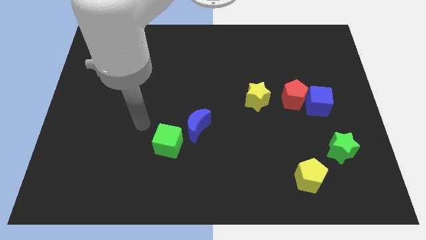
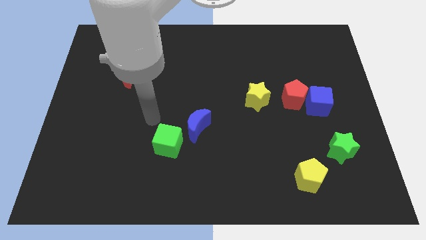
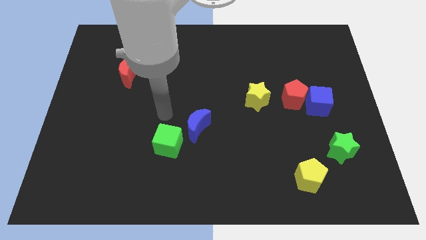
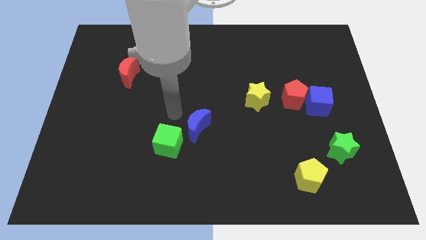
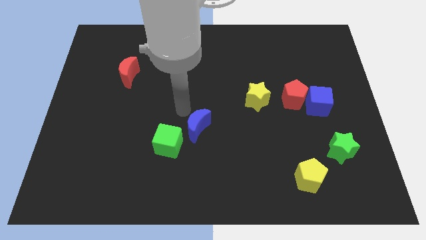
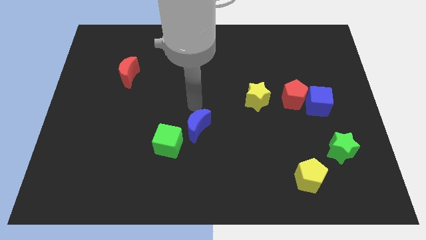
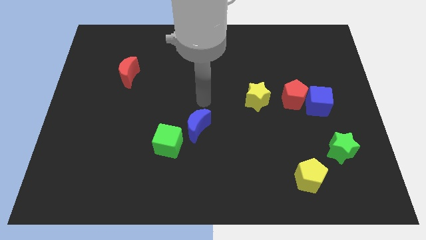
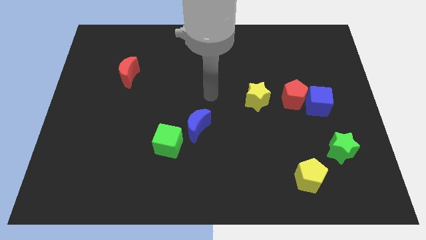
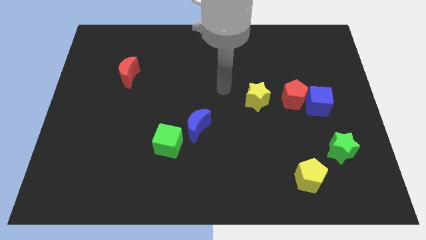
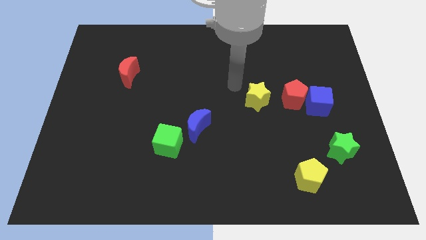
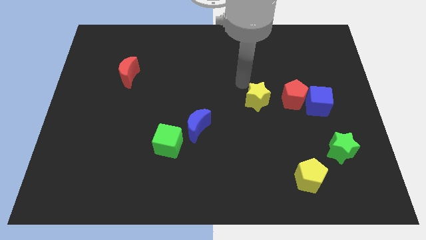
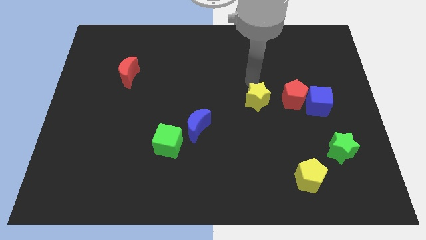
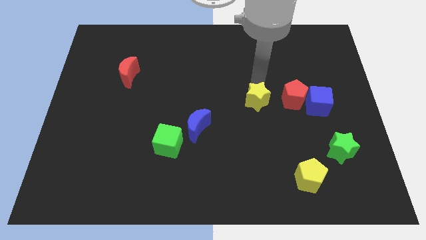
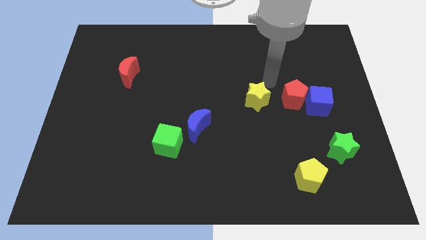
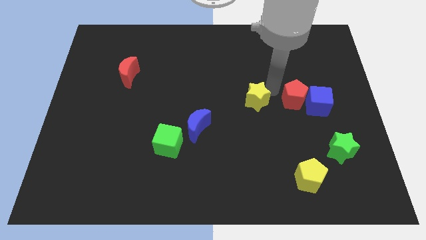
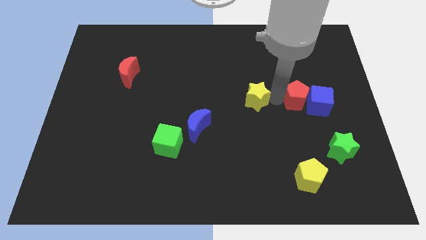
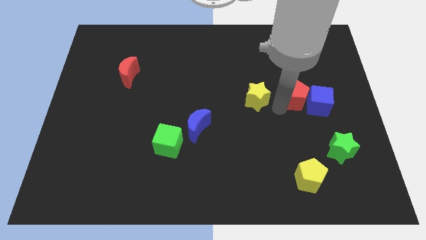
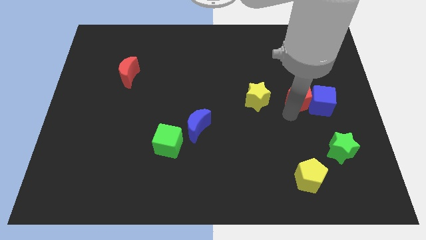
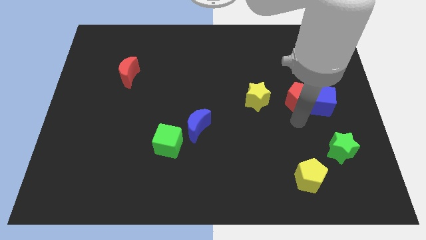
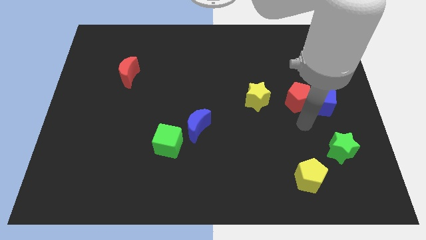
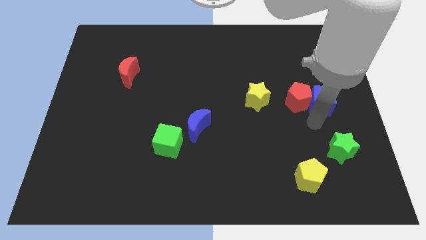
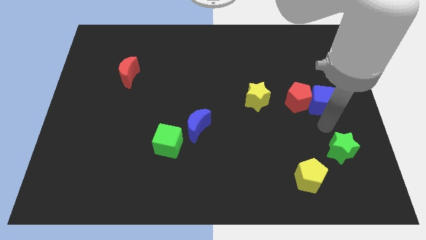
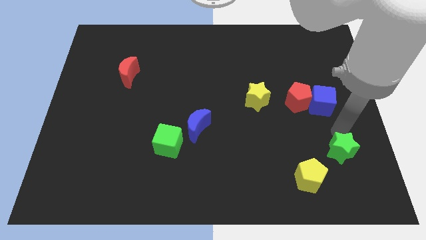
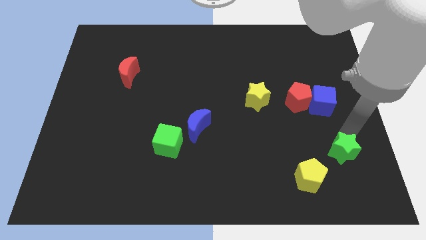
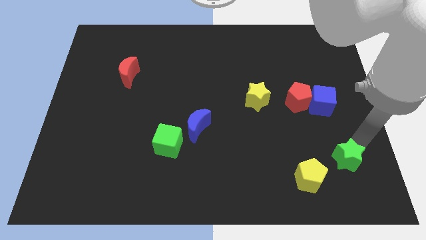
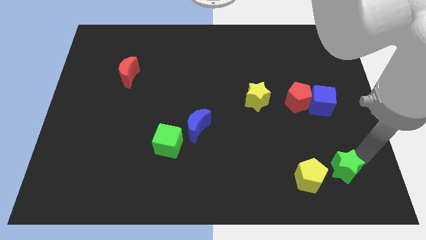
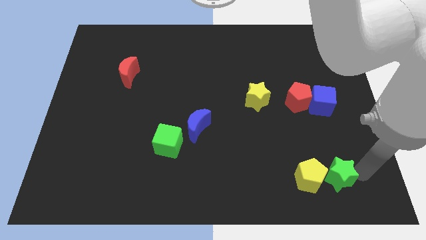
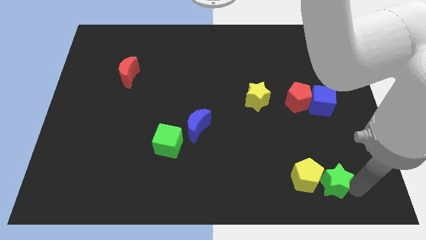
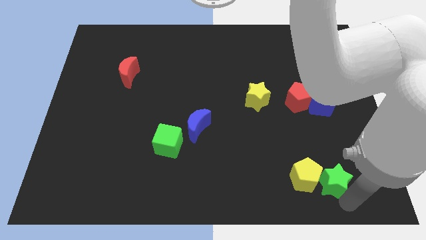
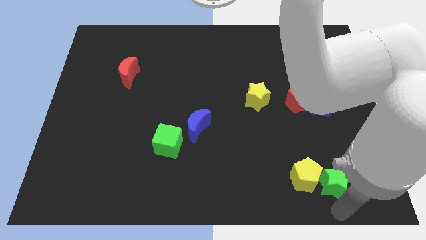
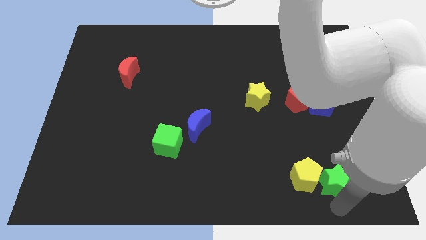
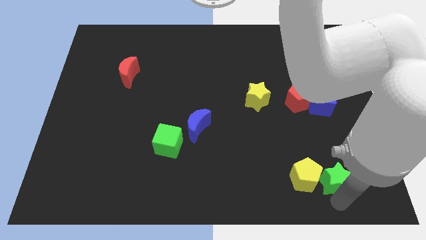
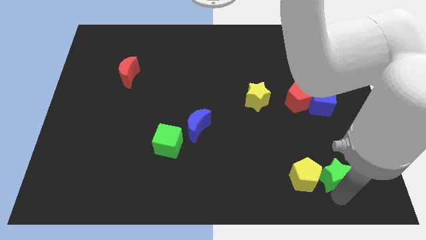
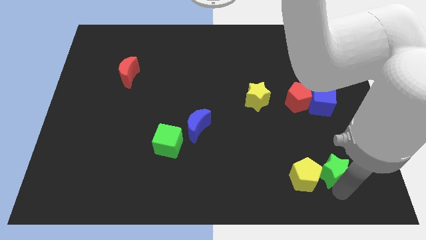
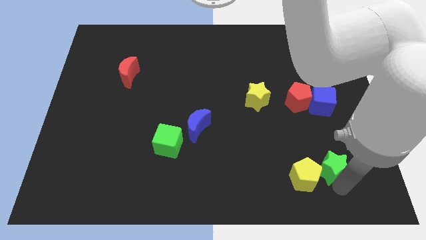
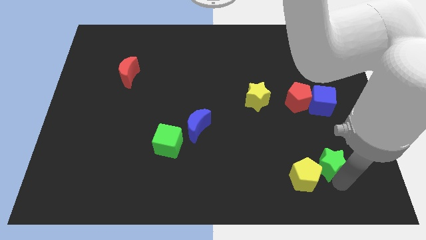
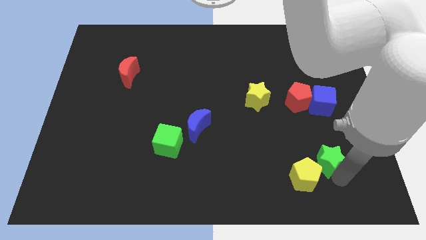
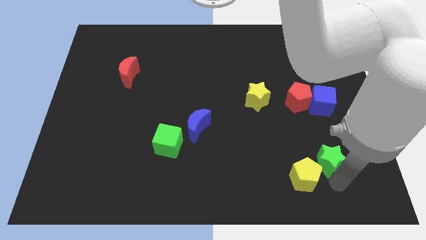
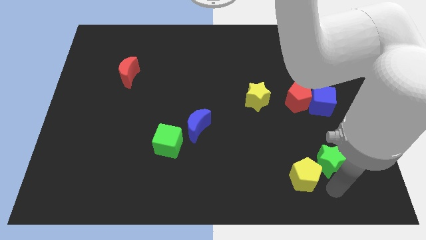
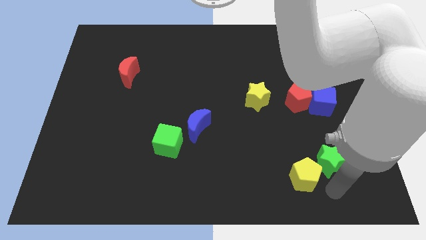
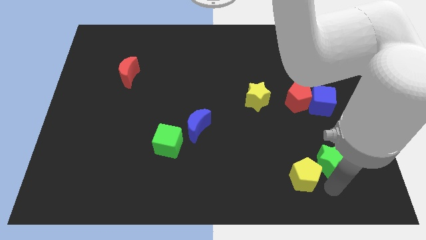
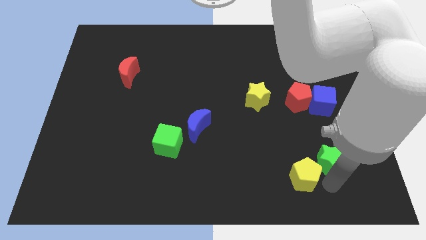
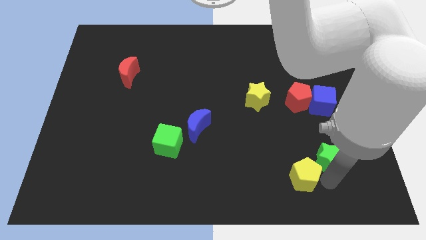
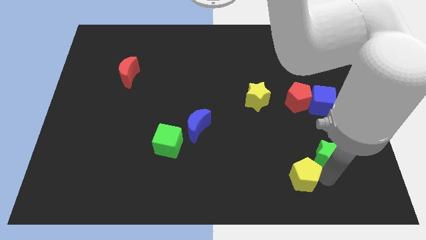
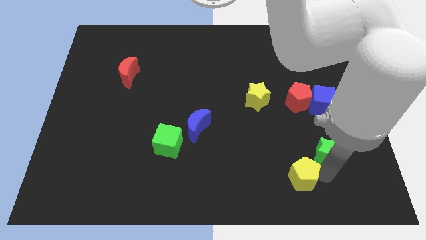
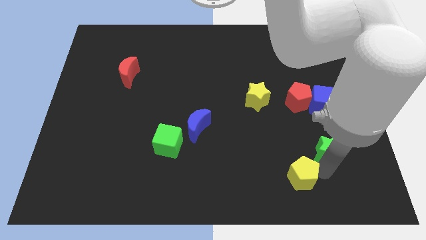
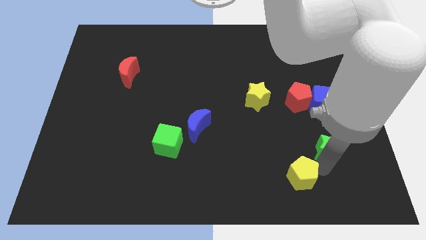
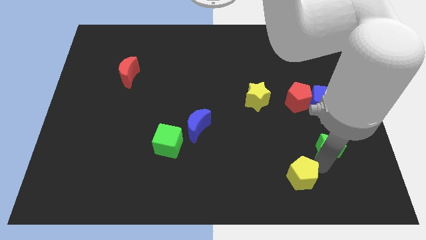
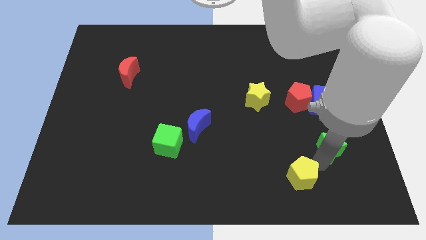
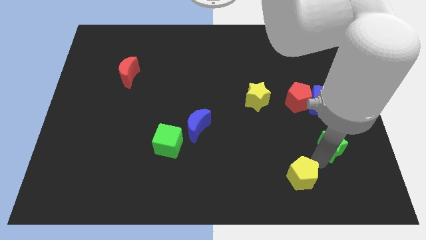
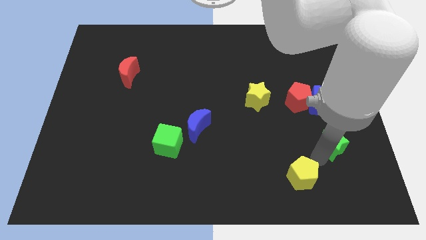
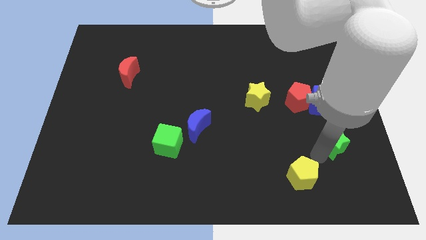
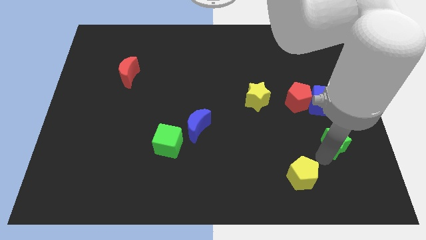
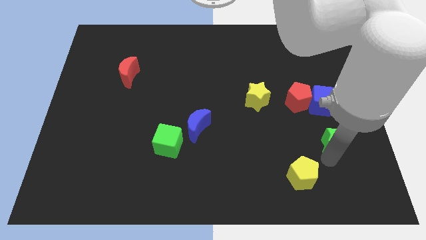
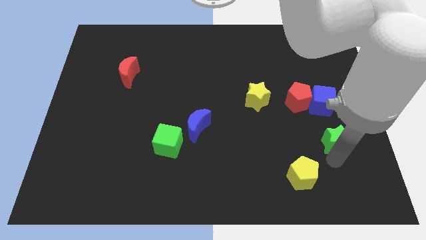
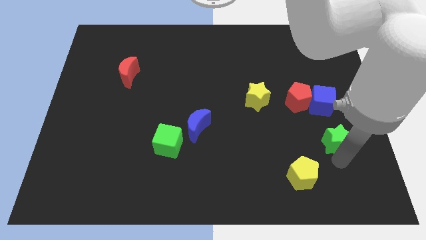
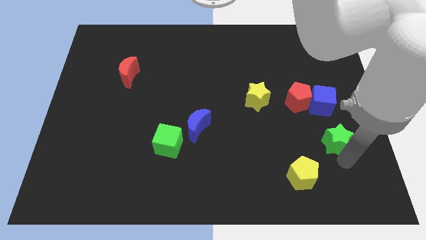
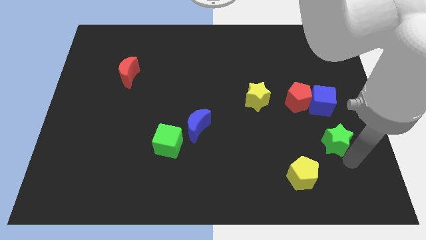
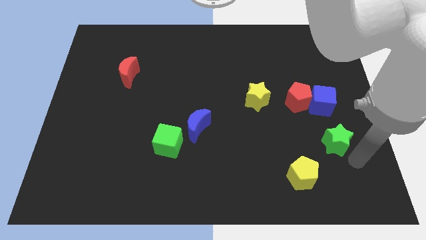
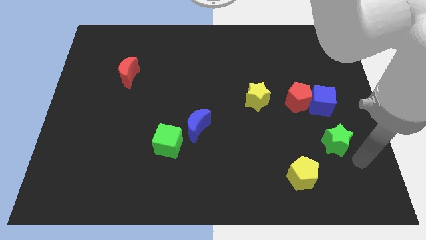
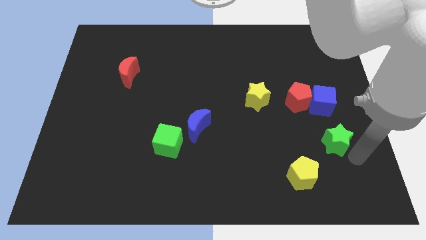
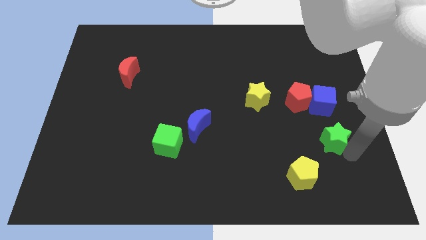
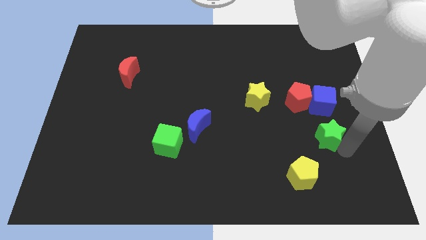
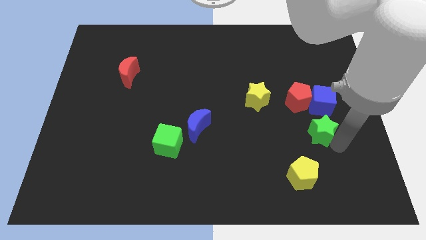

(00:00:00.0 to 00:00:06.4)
put the green star diagonally down and to the left of the blue cube

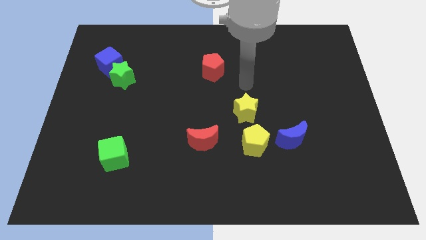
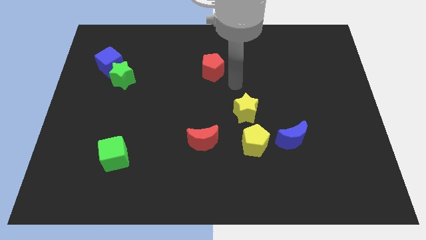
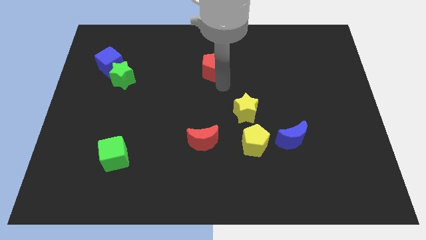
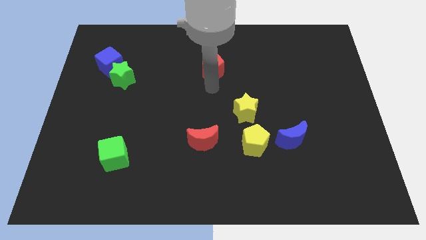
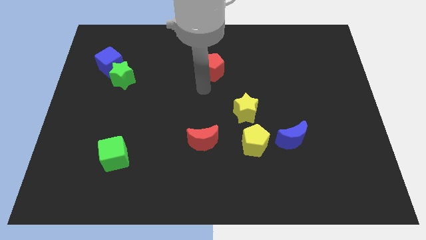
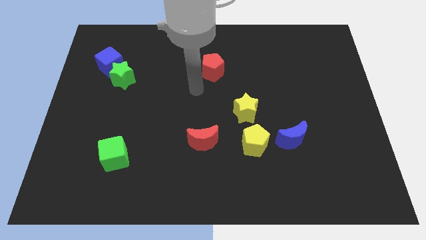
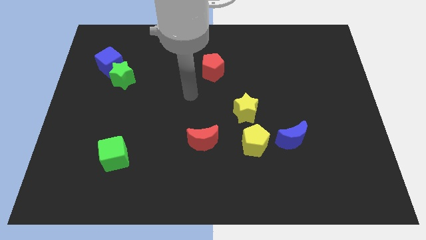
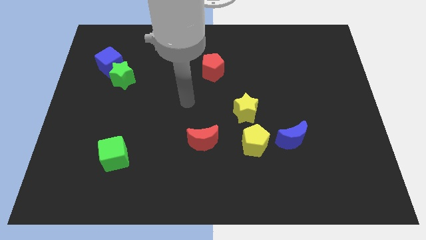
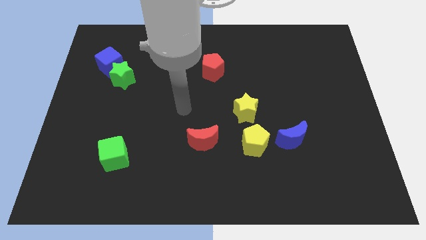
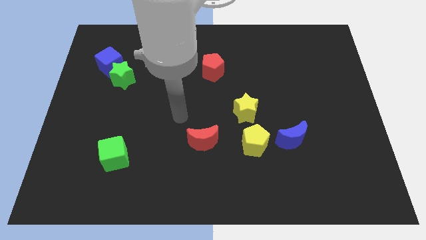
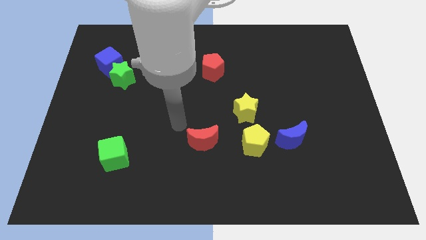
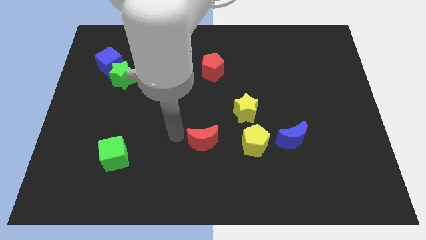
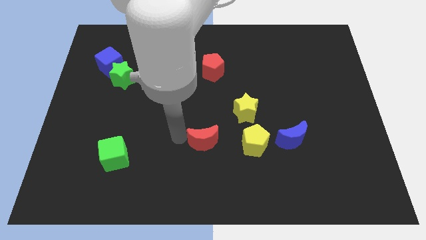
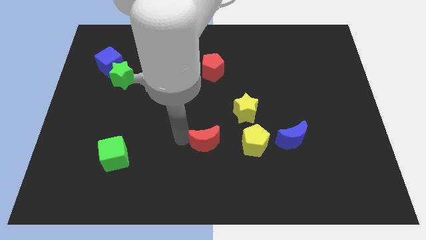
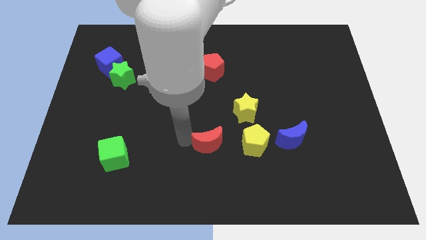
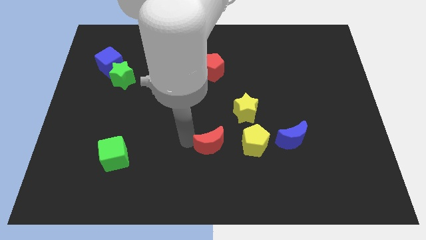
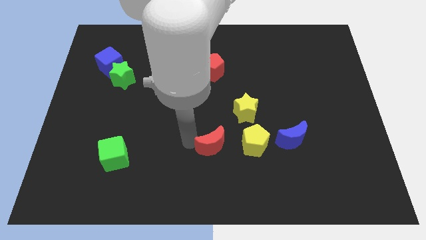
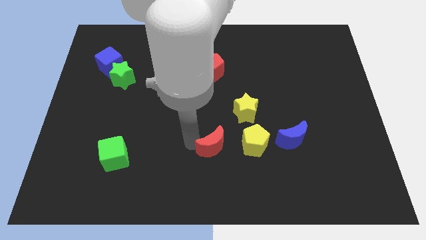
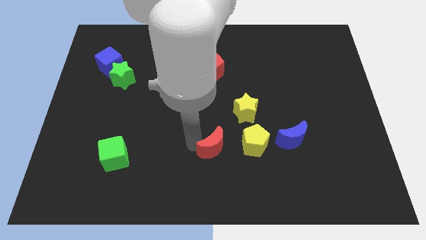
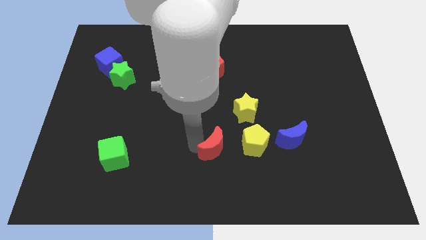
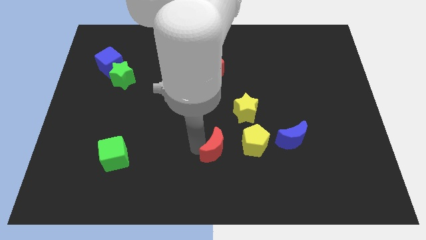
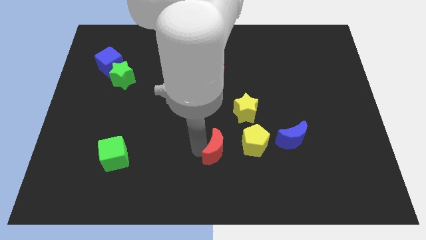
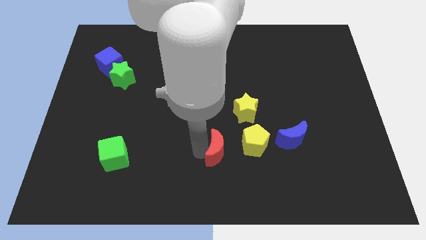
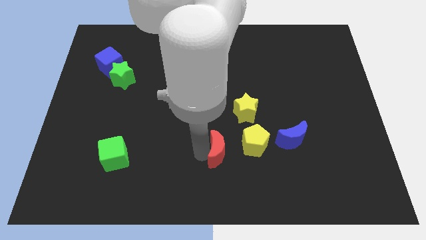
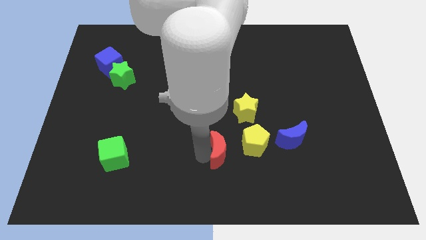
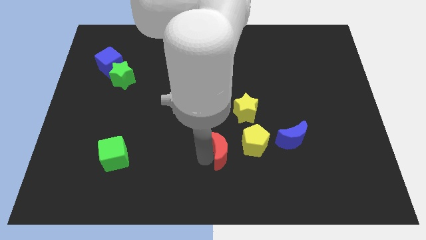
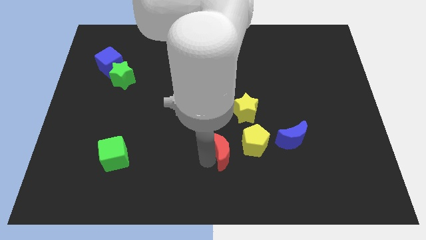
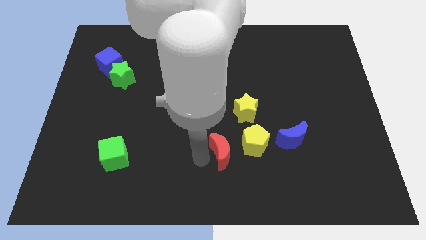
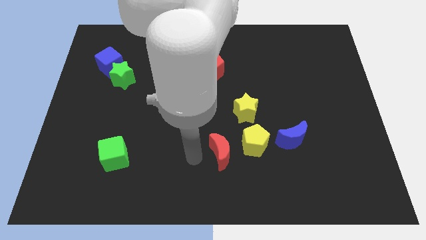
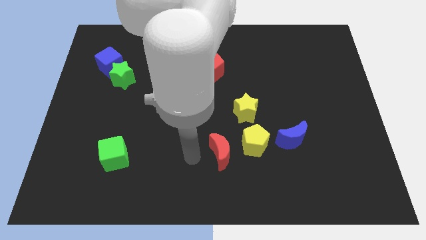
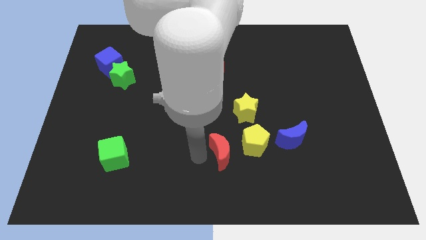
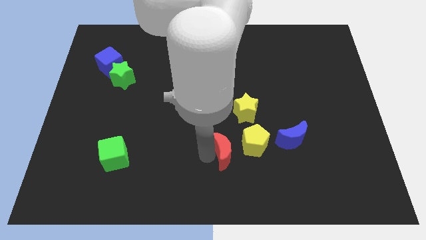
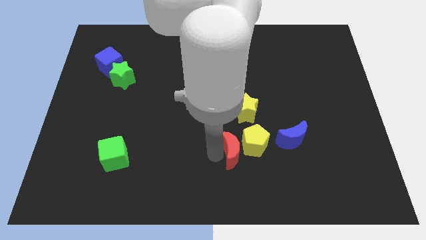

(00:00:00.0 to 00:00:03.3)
put the red moon to the bottom of the yellow star
